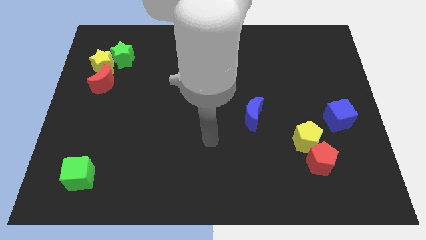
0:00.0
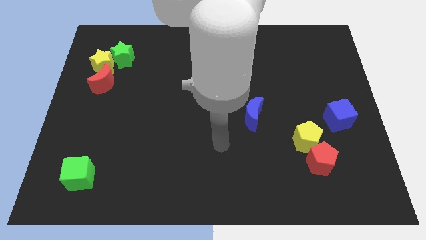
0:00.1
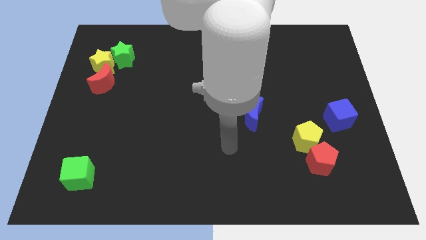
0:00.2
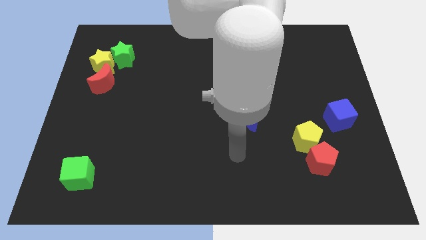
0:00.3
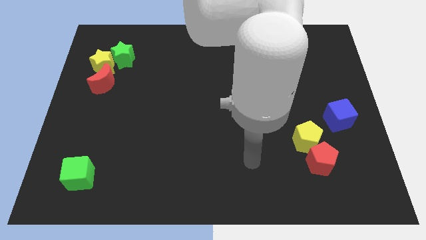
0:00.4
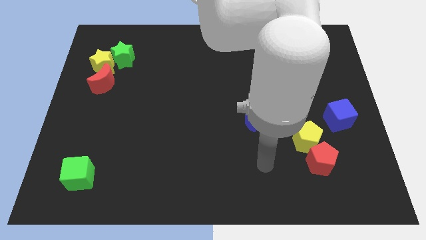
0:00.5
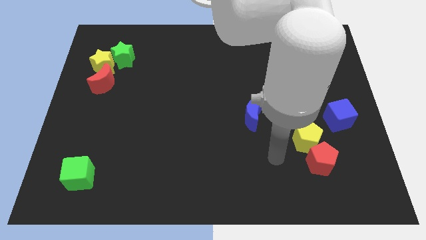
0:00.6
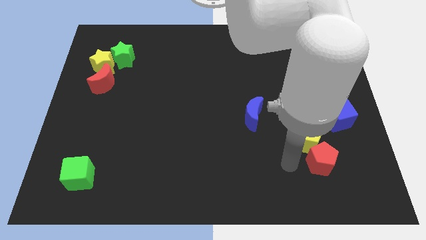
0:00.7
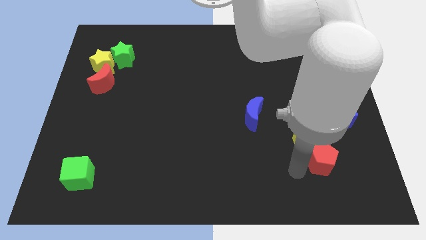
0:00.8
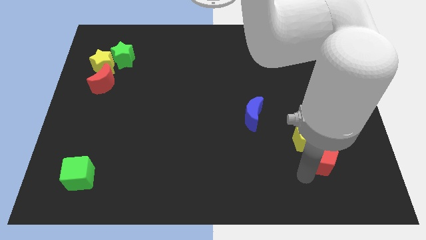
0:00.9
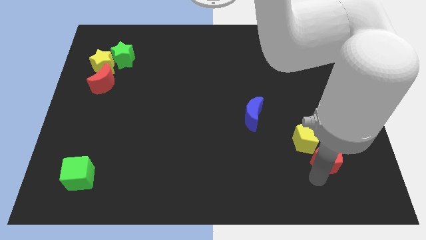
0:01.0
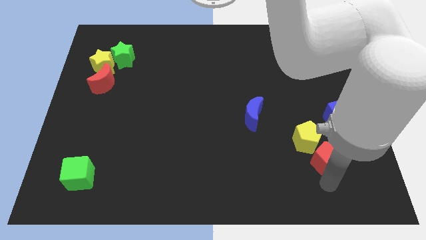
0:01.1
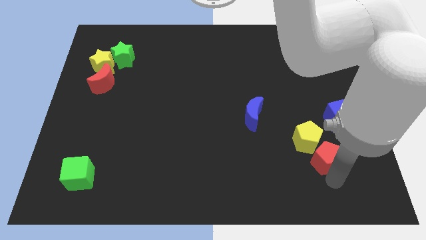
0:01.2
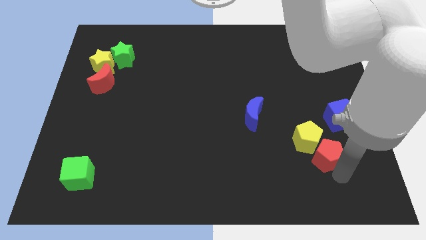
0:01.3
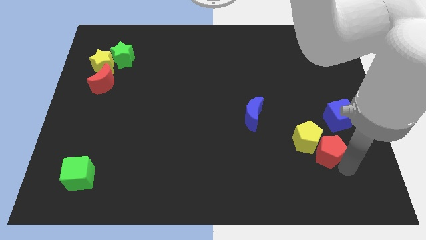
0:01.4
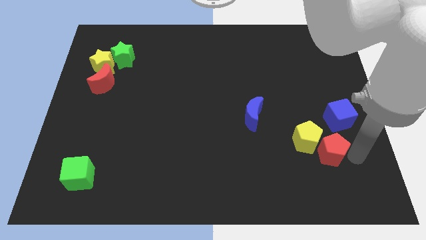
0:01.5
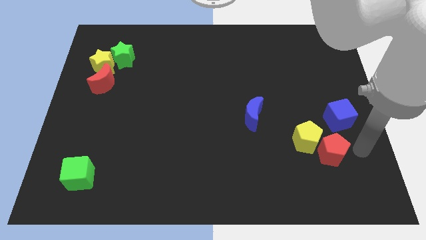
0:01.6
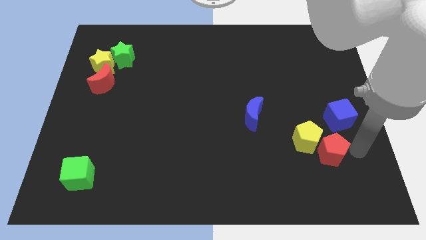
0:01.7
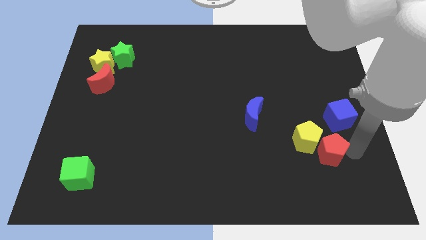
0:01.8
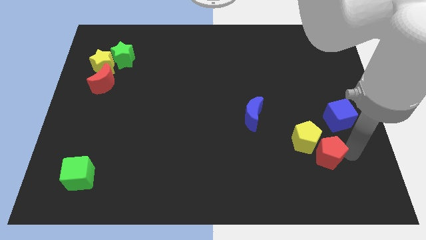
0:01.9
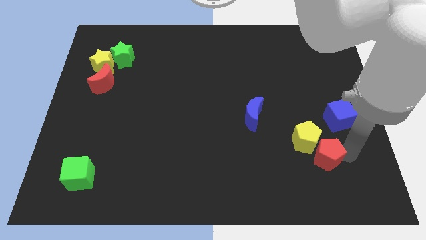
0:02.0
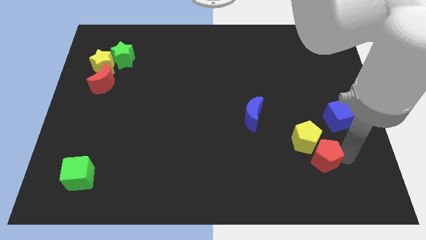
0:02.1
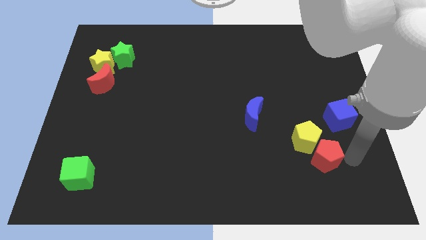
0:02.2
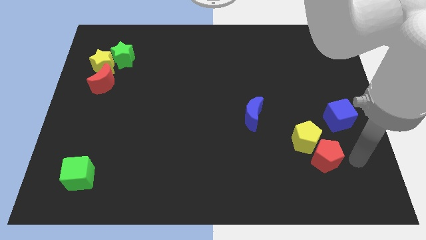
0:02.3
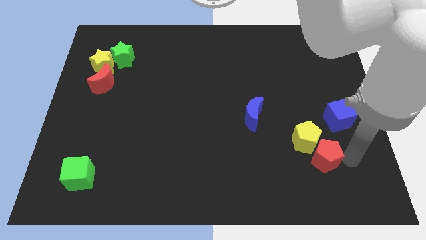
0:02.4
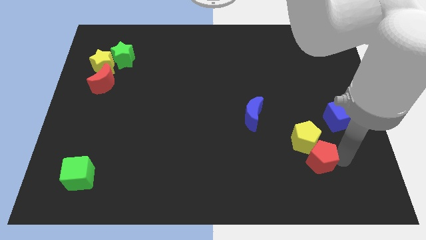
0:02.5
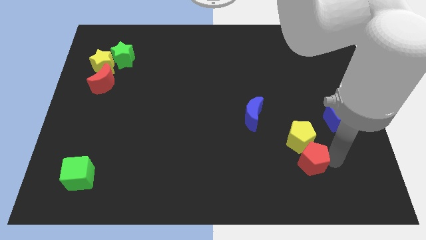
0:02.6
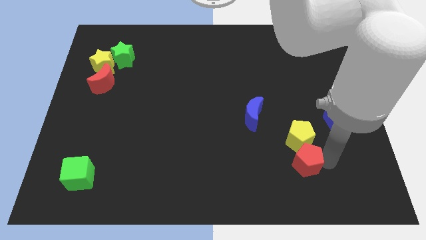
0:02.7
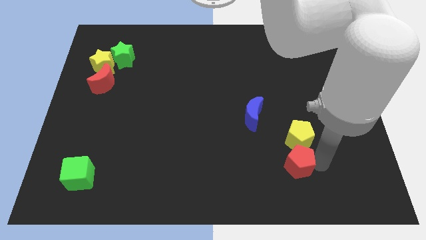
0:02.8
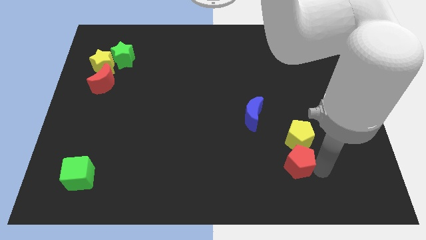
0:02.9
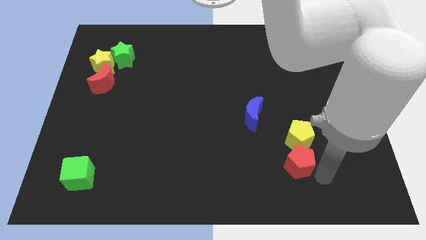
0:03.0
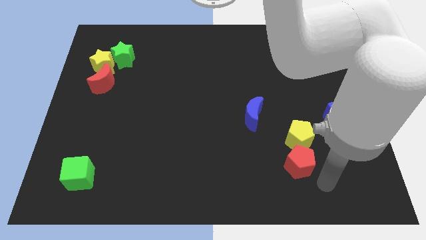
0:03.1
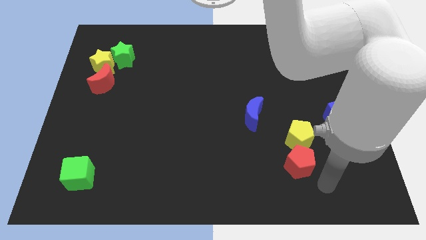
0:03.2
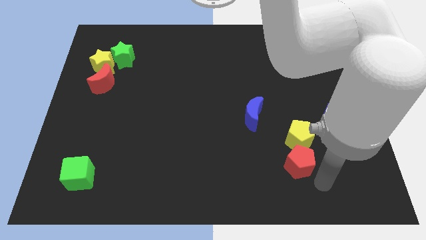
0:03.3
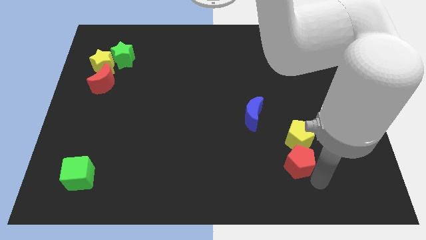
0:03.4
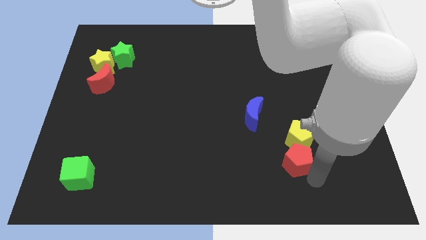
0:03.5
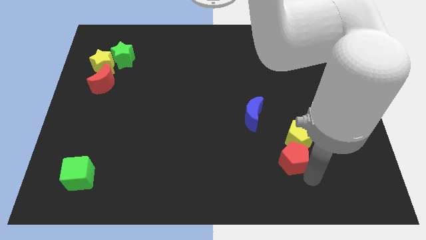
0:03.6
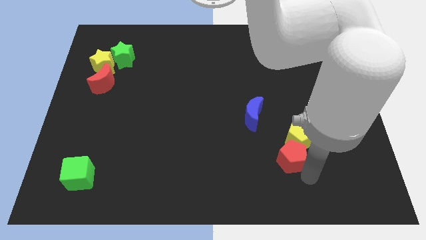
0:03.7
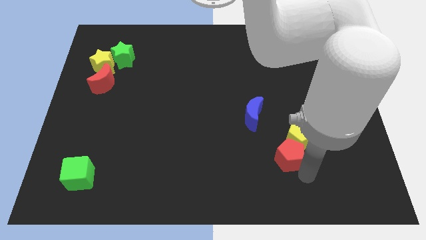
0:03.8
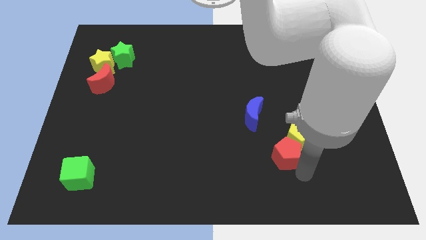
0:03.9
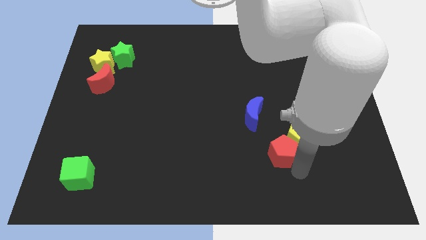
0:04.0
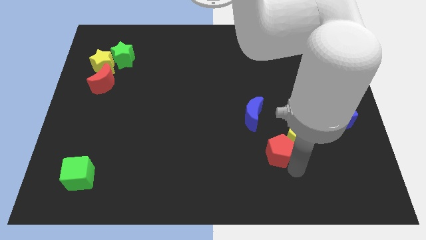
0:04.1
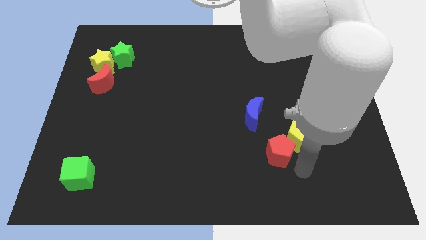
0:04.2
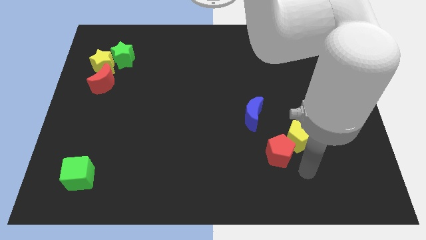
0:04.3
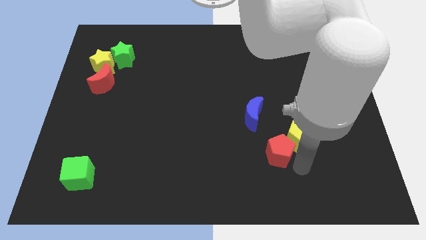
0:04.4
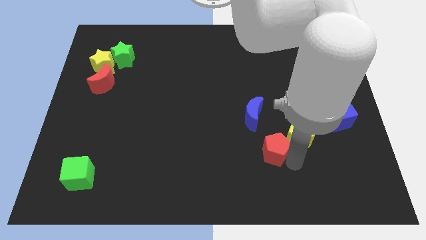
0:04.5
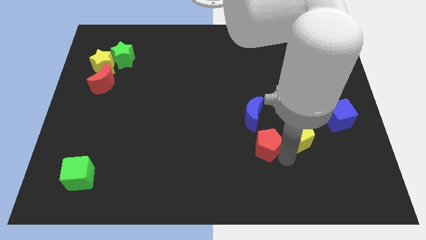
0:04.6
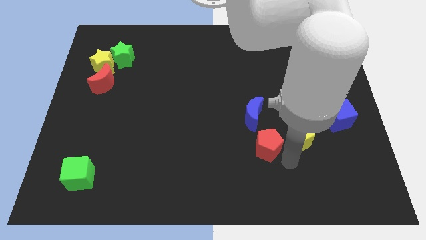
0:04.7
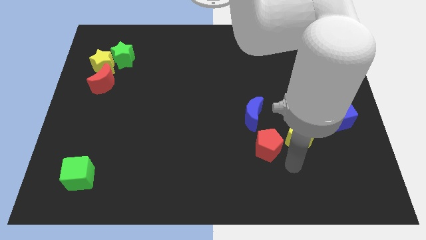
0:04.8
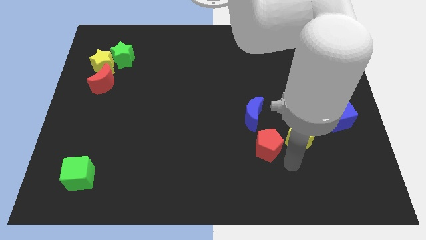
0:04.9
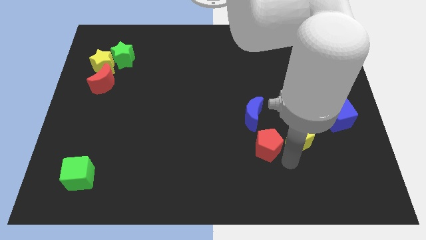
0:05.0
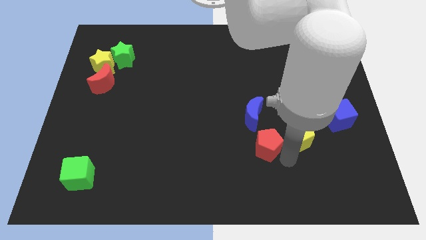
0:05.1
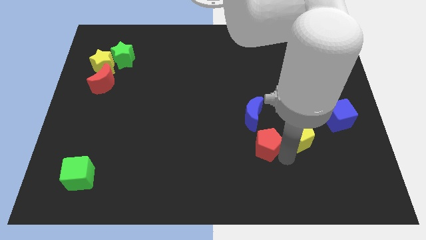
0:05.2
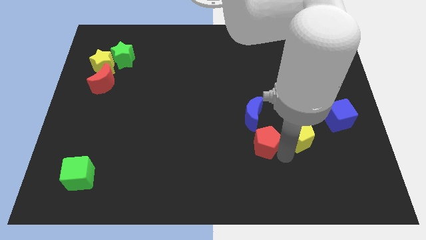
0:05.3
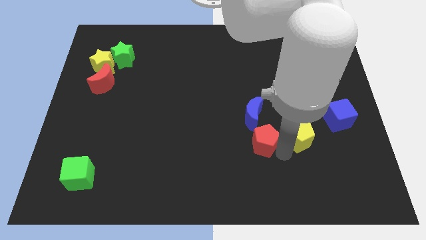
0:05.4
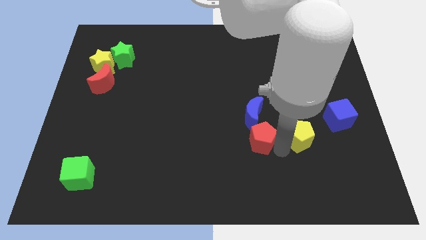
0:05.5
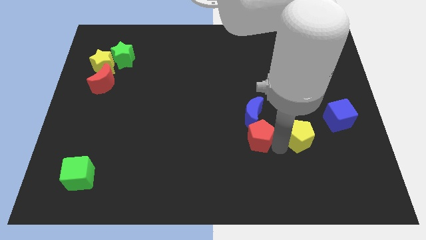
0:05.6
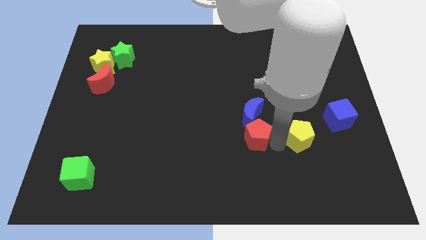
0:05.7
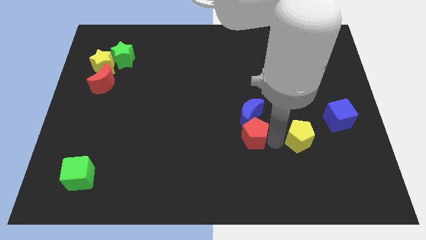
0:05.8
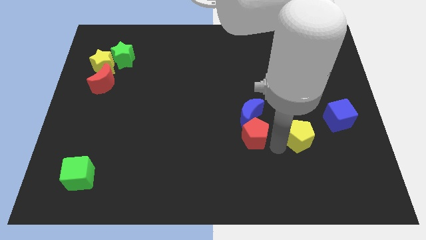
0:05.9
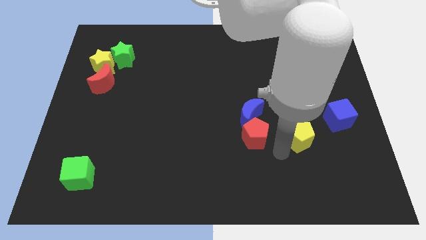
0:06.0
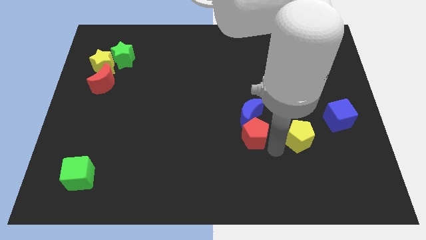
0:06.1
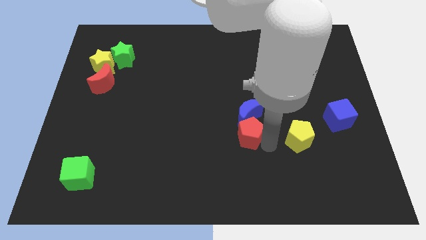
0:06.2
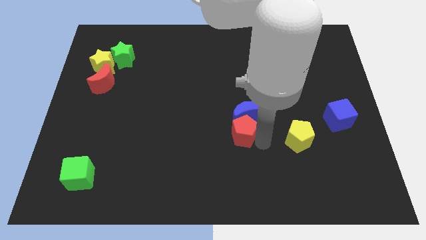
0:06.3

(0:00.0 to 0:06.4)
move the red pentagon to the middle

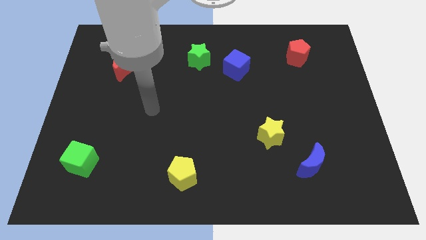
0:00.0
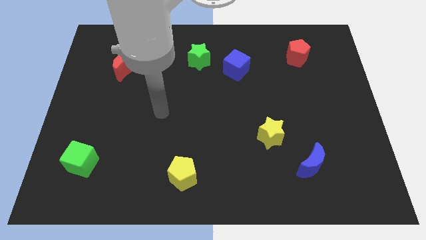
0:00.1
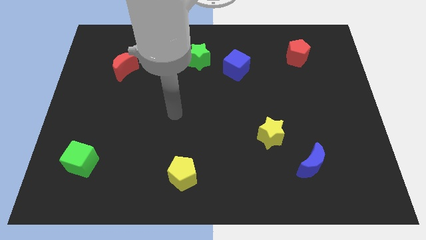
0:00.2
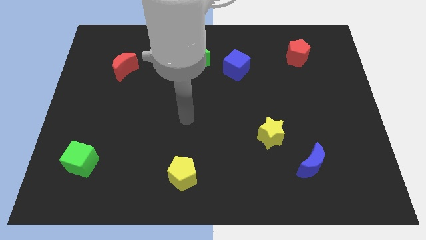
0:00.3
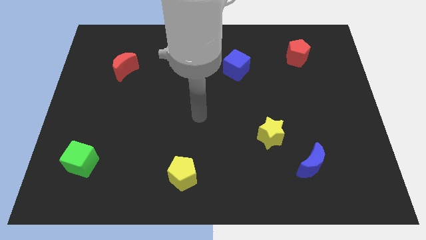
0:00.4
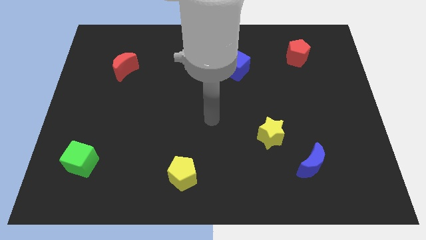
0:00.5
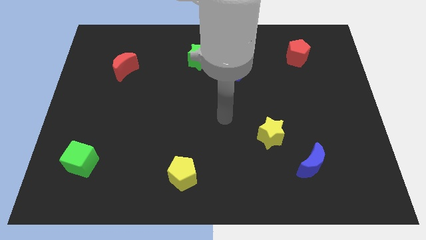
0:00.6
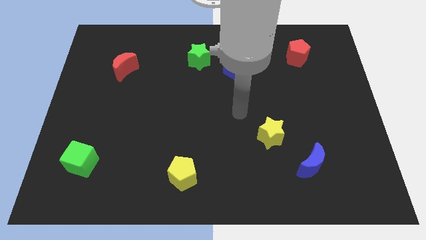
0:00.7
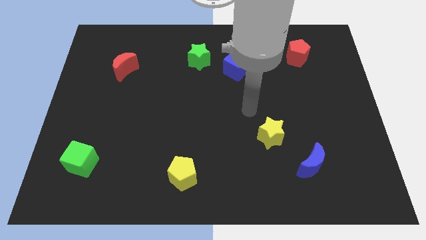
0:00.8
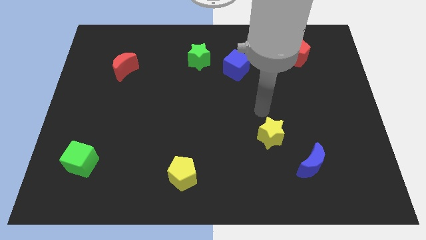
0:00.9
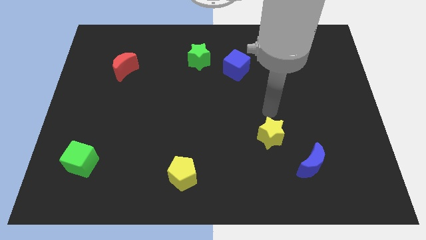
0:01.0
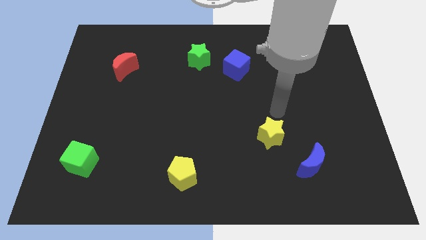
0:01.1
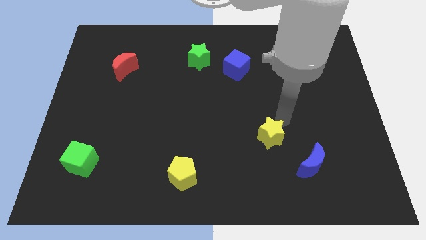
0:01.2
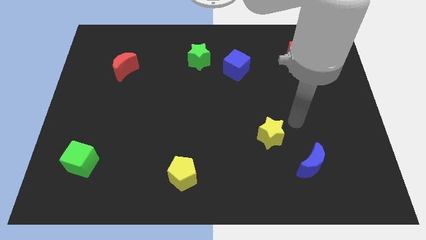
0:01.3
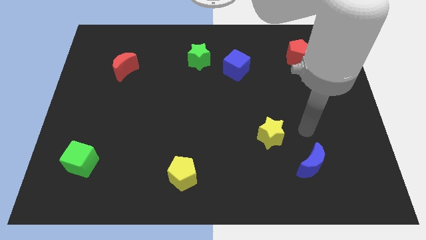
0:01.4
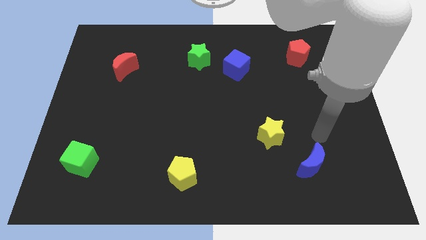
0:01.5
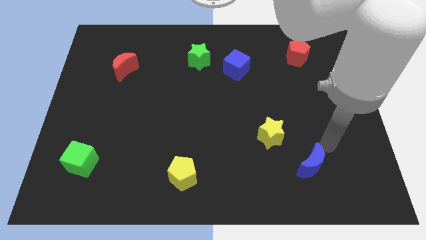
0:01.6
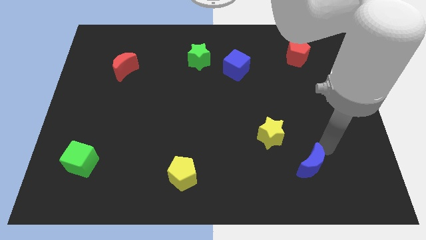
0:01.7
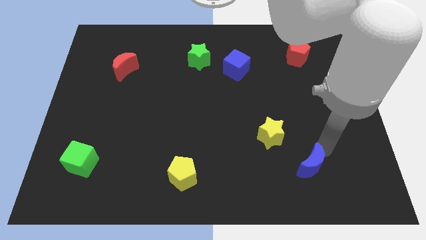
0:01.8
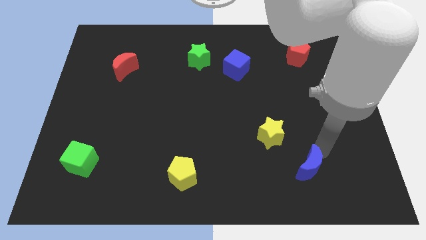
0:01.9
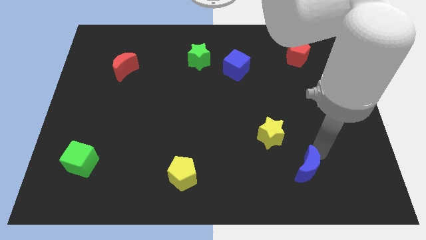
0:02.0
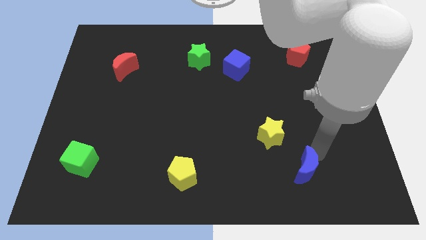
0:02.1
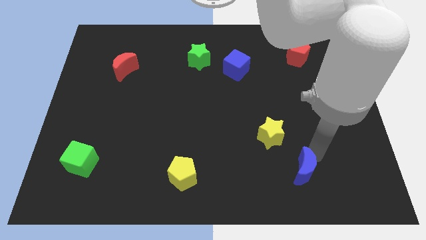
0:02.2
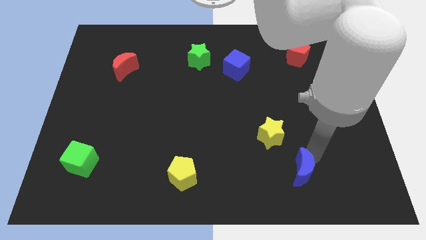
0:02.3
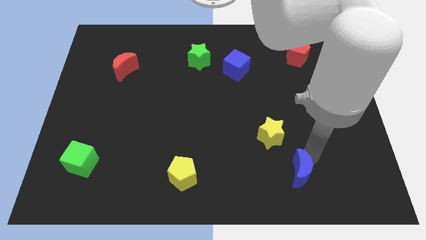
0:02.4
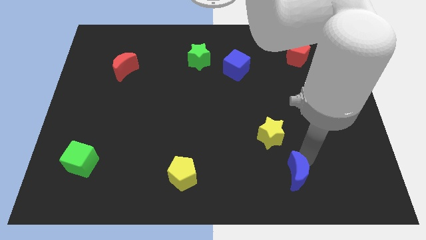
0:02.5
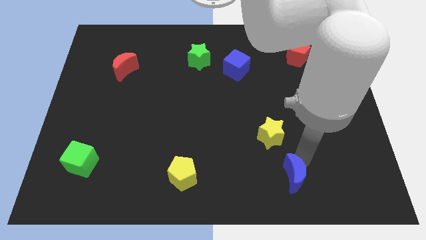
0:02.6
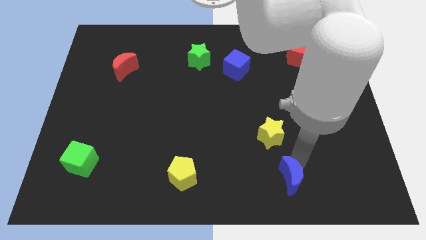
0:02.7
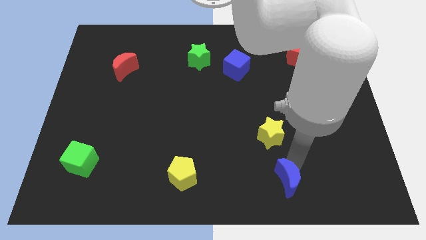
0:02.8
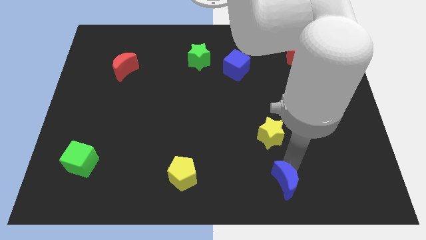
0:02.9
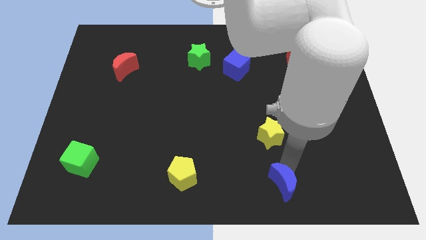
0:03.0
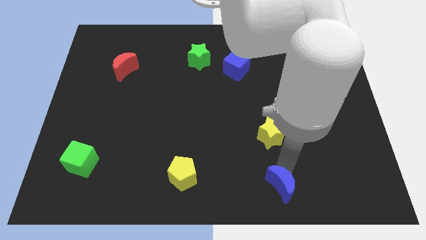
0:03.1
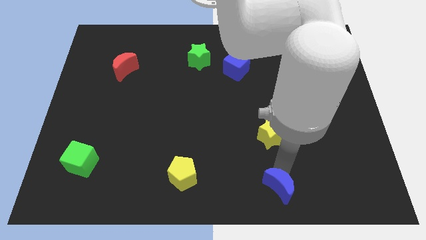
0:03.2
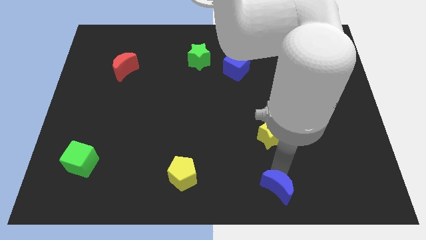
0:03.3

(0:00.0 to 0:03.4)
push the blue moon to the bottom side
